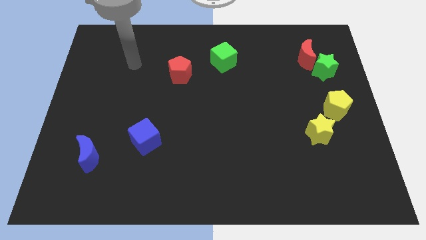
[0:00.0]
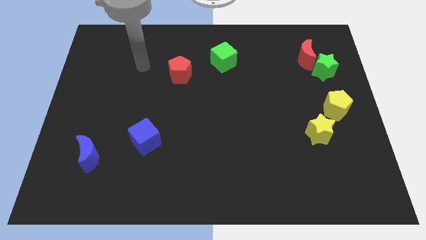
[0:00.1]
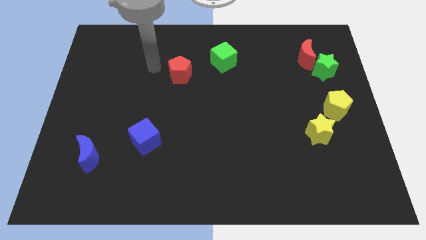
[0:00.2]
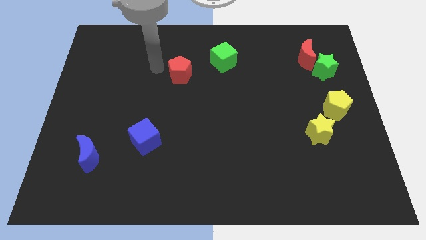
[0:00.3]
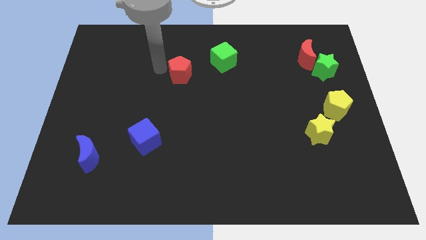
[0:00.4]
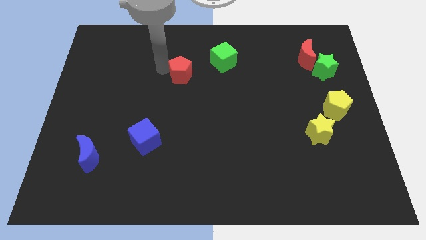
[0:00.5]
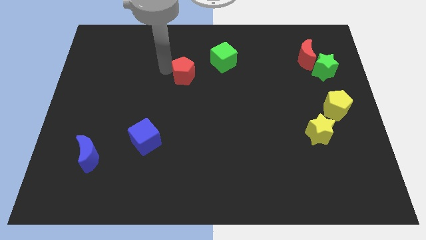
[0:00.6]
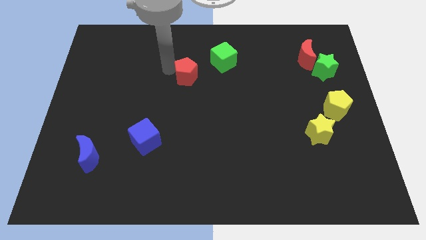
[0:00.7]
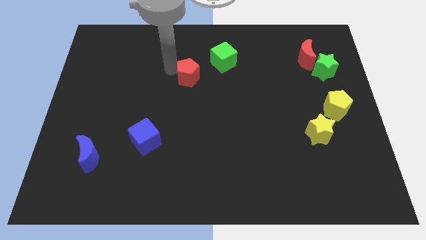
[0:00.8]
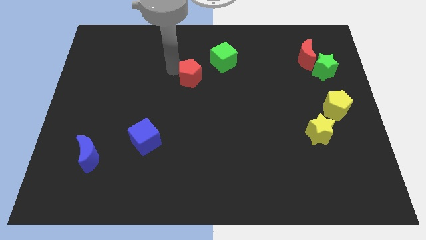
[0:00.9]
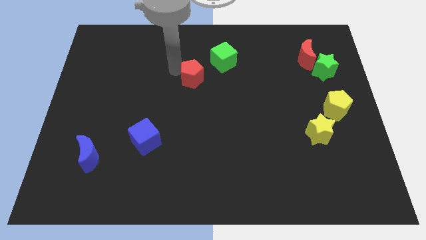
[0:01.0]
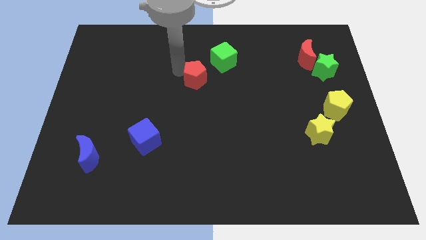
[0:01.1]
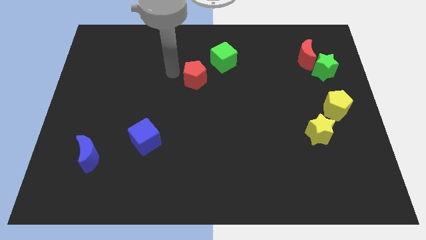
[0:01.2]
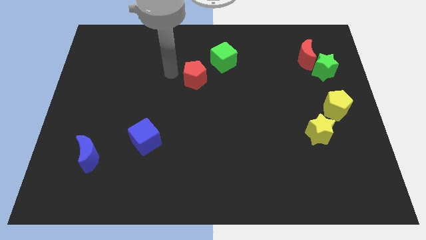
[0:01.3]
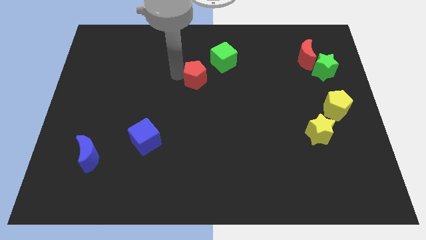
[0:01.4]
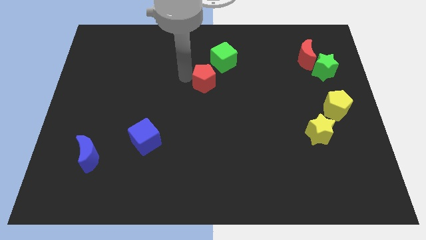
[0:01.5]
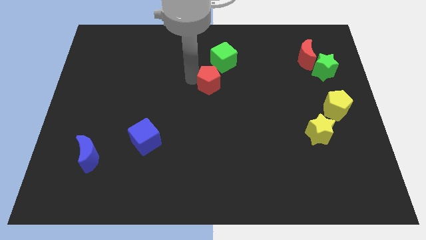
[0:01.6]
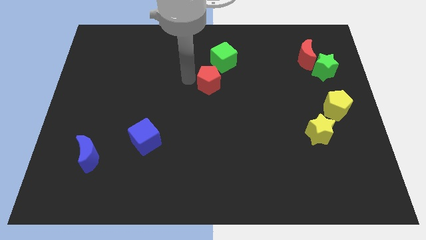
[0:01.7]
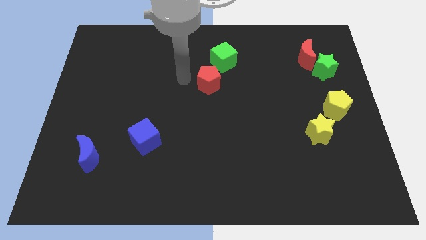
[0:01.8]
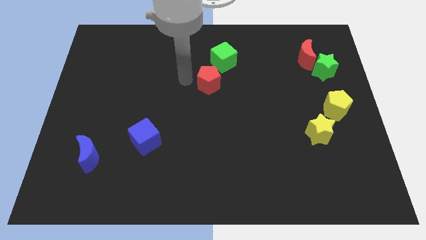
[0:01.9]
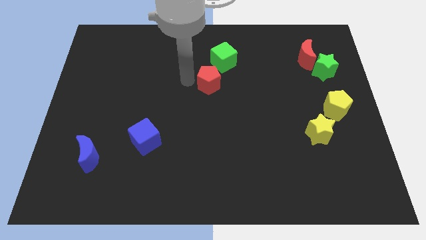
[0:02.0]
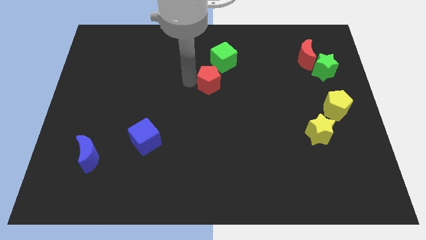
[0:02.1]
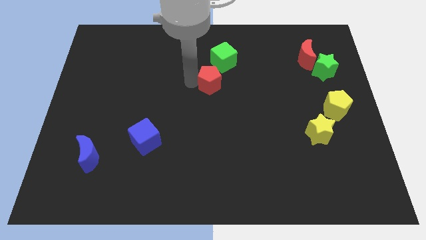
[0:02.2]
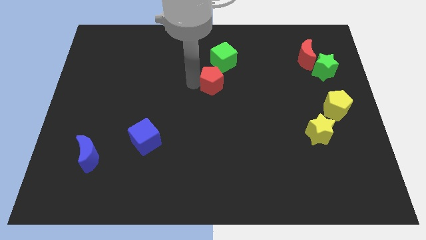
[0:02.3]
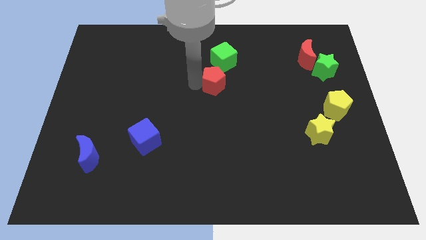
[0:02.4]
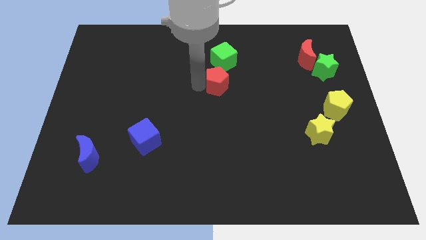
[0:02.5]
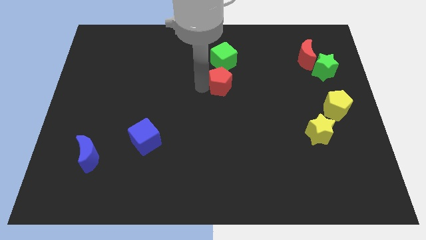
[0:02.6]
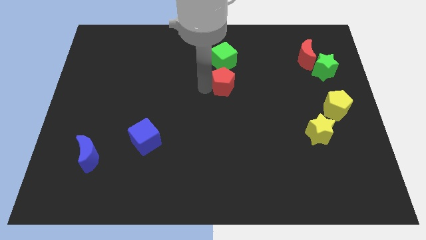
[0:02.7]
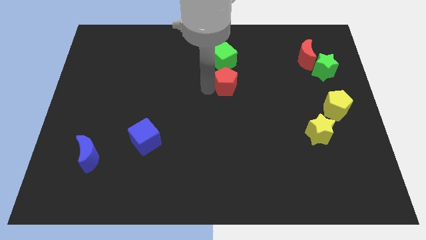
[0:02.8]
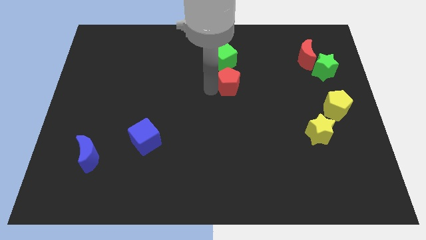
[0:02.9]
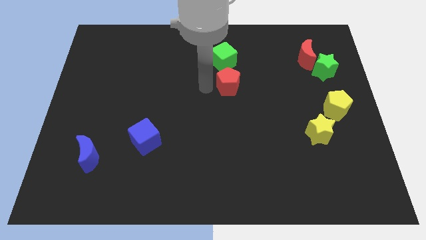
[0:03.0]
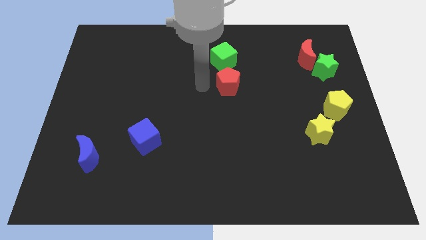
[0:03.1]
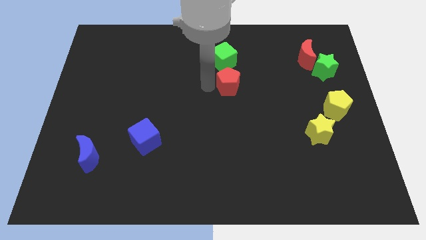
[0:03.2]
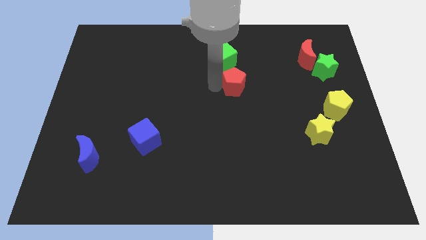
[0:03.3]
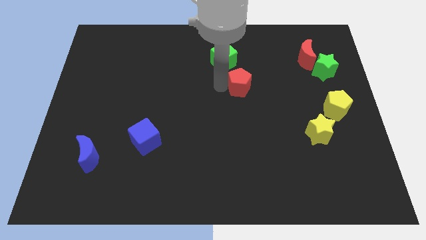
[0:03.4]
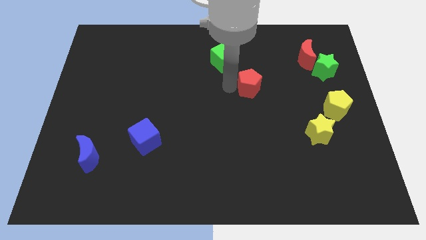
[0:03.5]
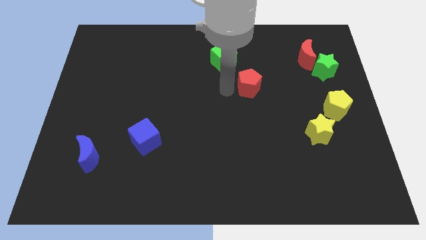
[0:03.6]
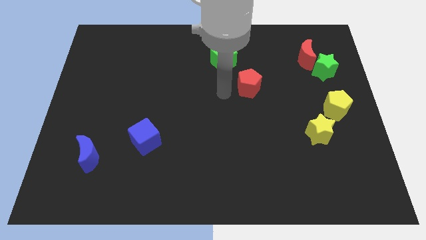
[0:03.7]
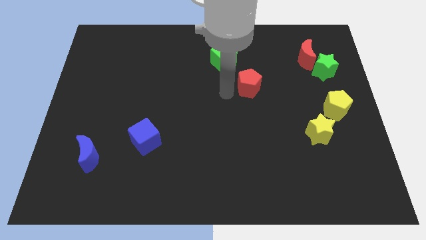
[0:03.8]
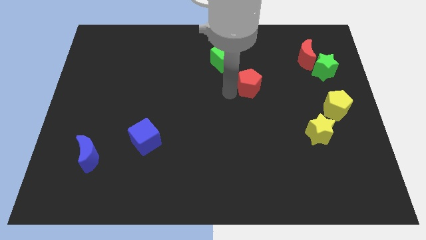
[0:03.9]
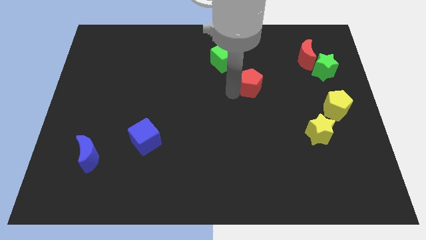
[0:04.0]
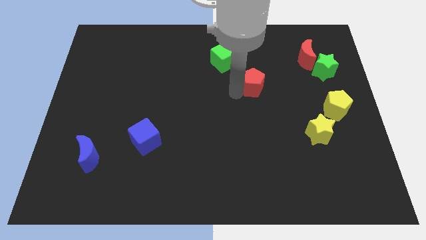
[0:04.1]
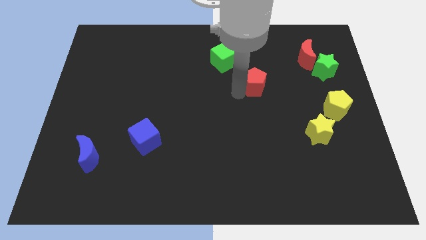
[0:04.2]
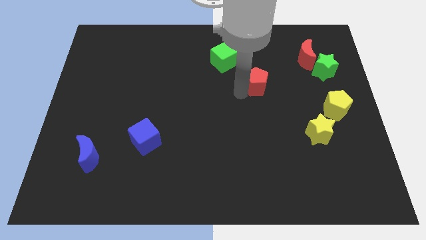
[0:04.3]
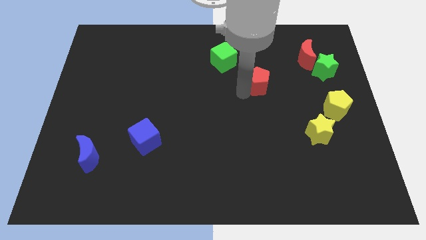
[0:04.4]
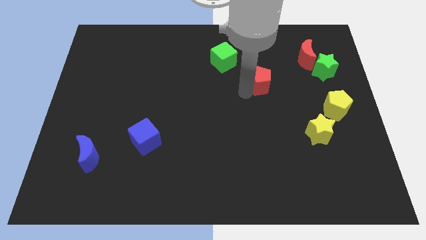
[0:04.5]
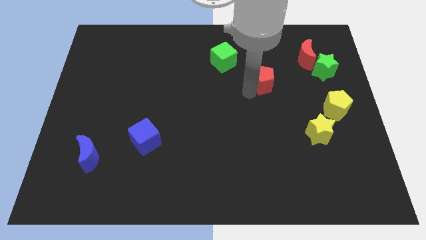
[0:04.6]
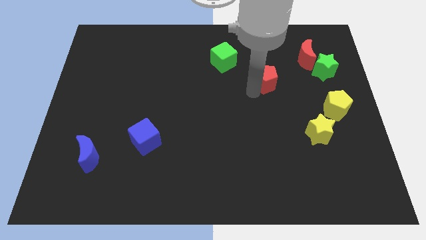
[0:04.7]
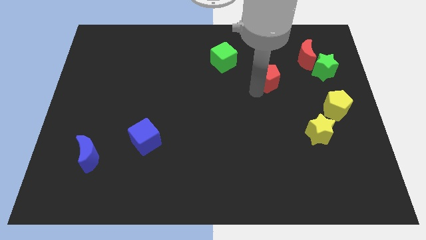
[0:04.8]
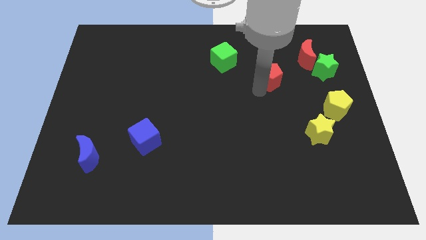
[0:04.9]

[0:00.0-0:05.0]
push the red pentagon diagonally down and to the left of the red moon

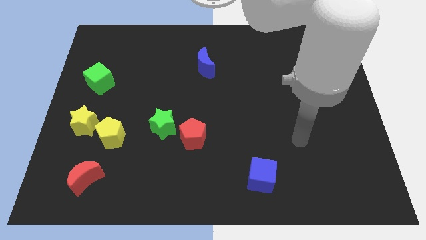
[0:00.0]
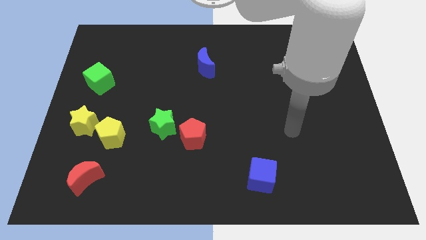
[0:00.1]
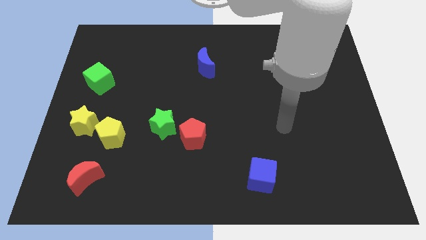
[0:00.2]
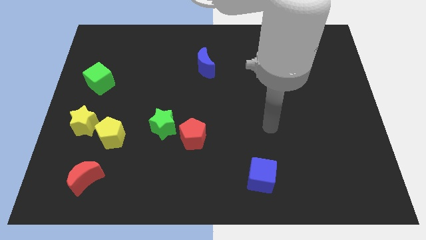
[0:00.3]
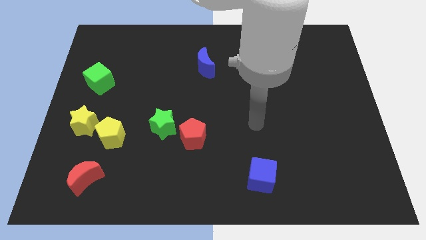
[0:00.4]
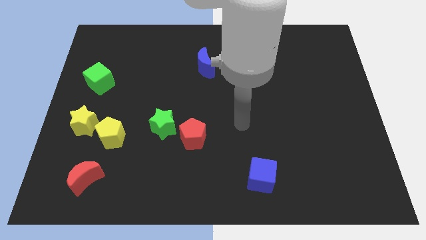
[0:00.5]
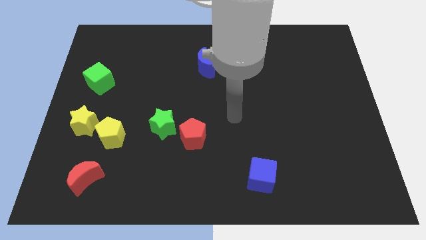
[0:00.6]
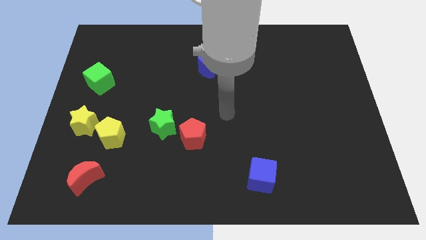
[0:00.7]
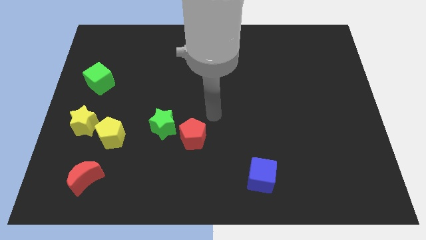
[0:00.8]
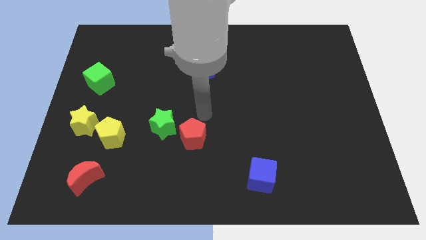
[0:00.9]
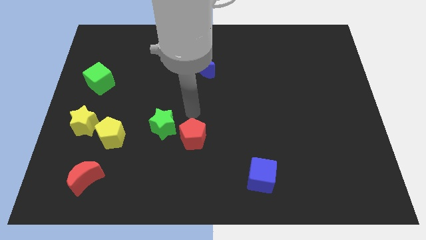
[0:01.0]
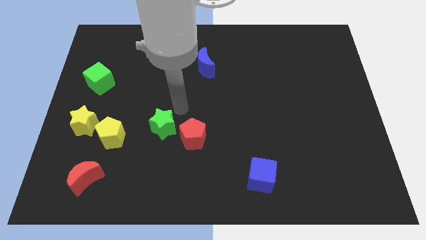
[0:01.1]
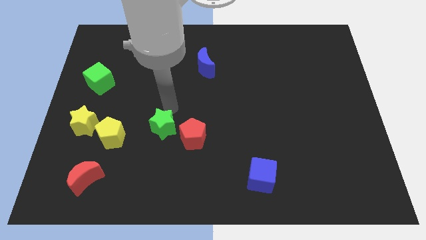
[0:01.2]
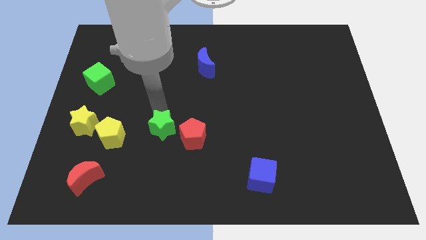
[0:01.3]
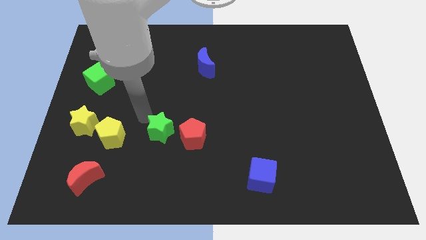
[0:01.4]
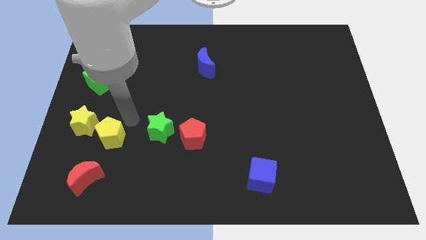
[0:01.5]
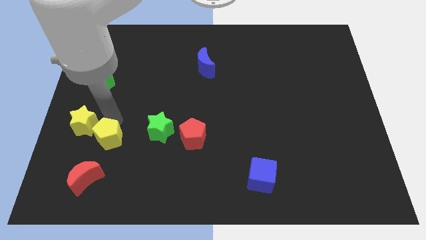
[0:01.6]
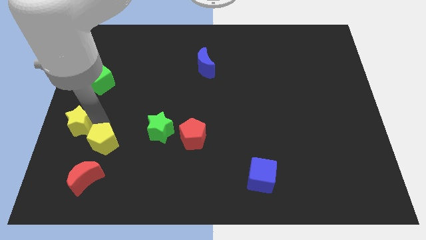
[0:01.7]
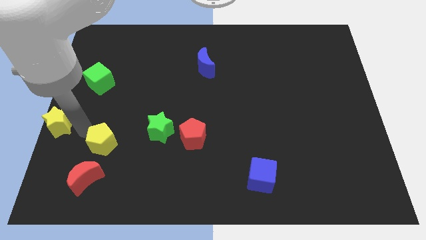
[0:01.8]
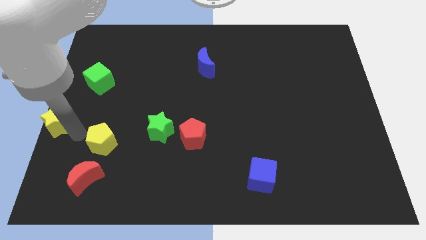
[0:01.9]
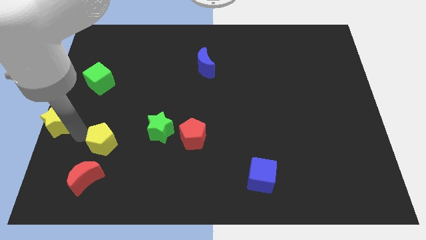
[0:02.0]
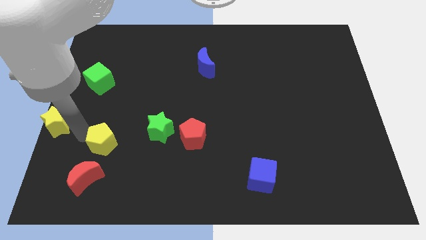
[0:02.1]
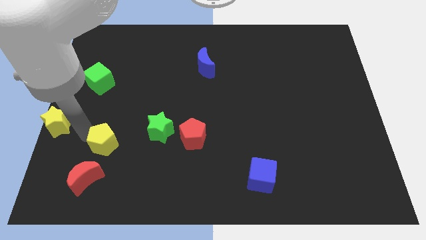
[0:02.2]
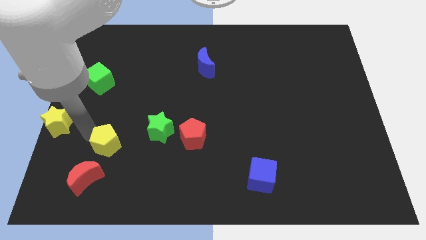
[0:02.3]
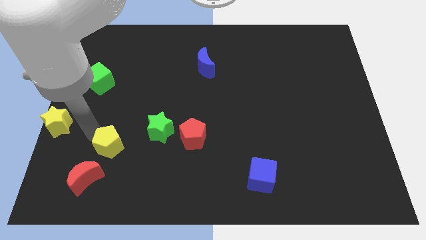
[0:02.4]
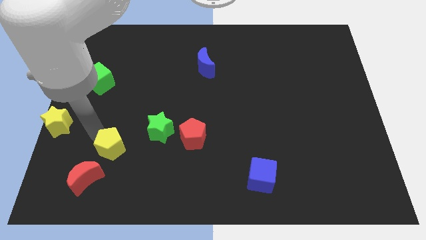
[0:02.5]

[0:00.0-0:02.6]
push the yellow pentagon diagonally down and to the left of the green star
